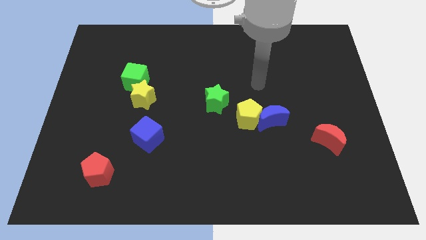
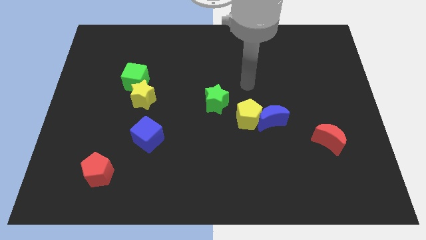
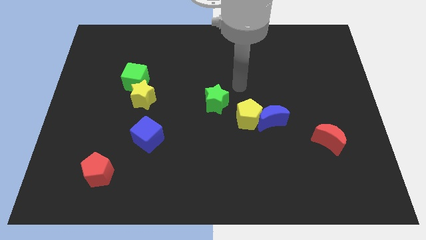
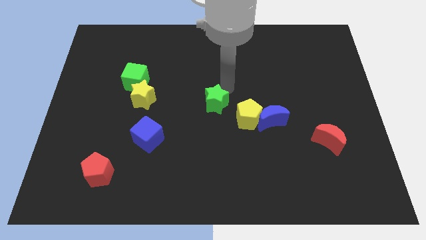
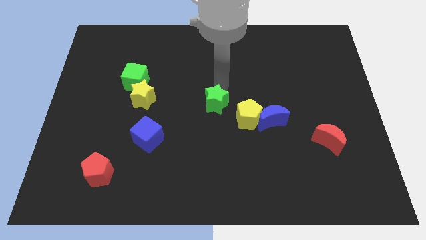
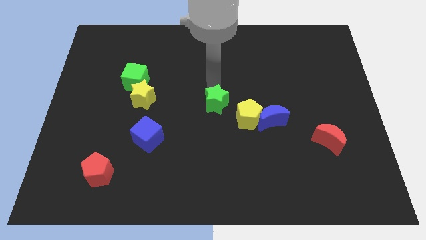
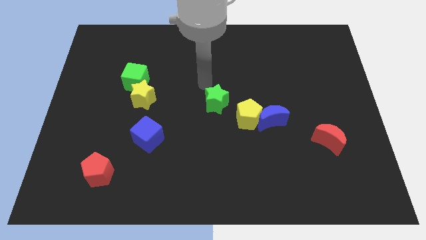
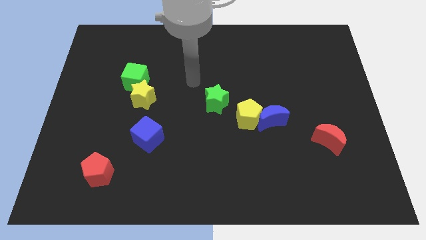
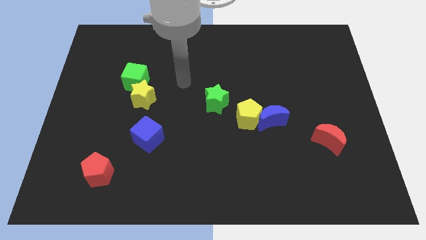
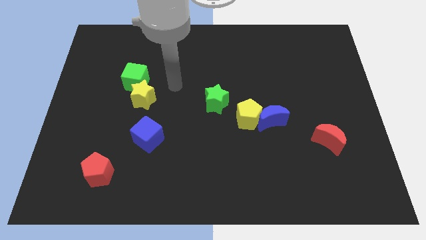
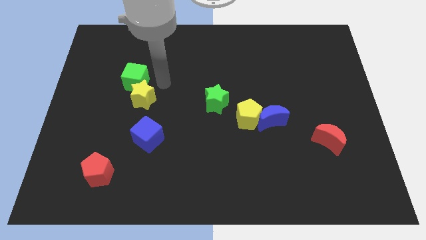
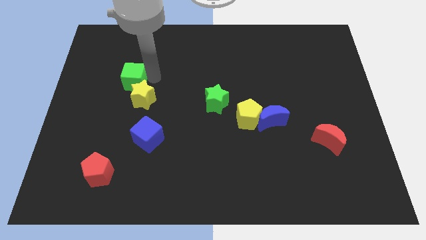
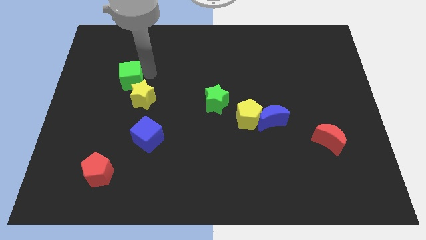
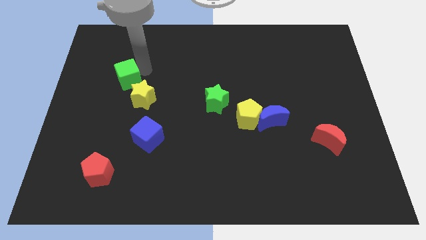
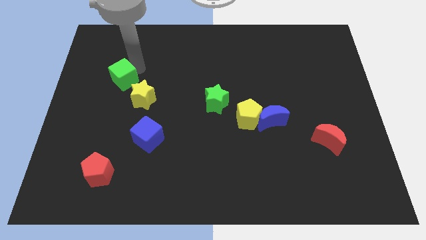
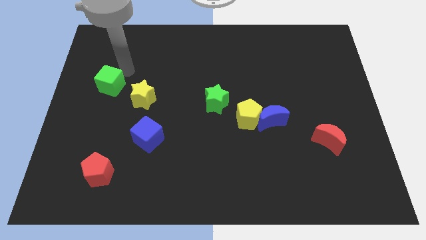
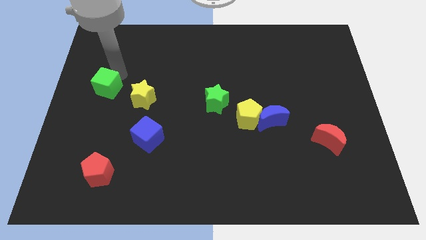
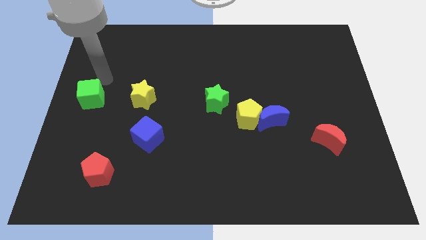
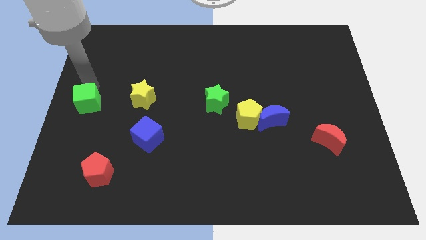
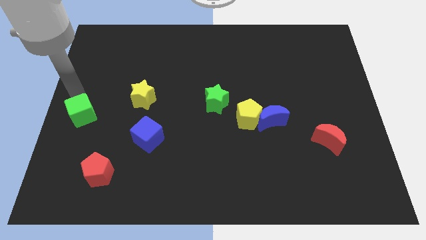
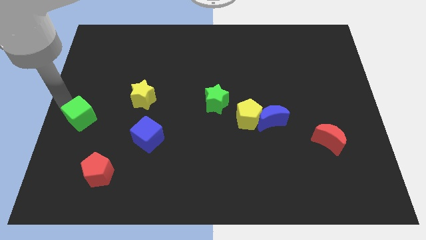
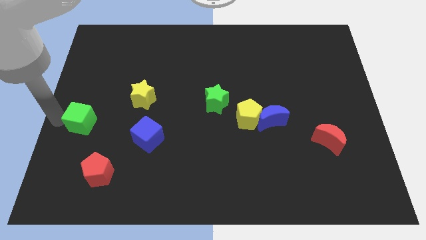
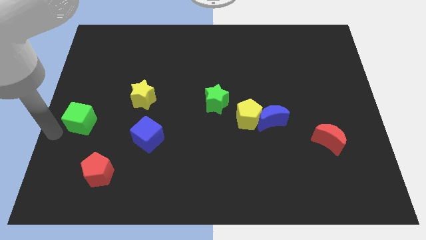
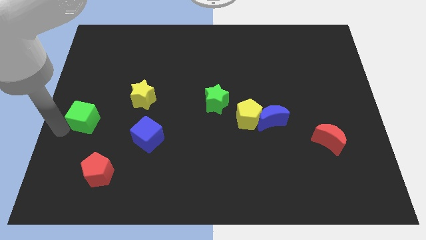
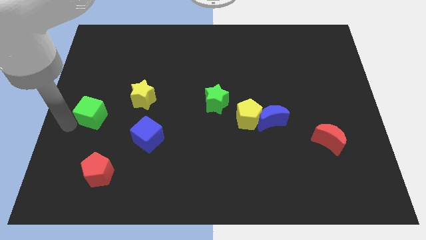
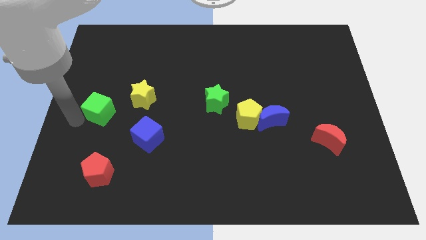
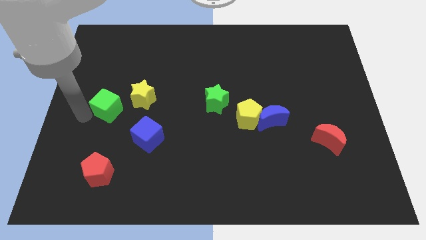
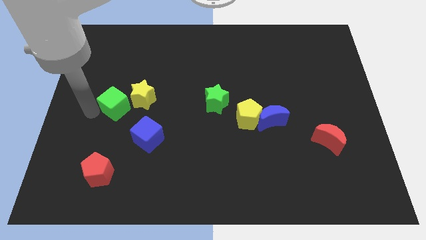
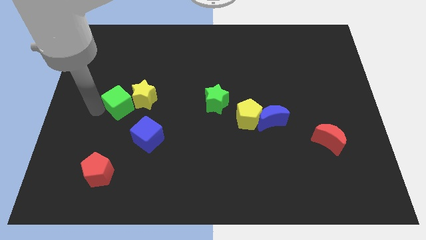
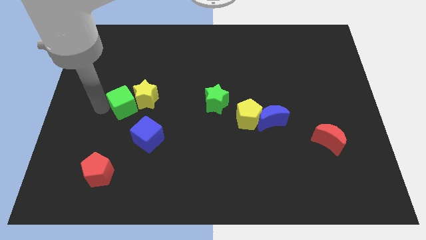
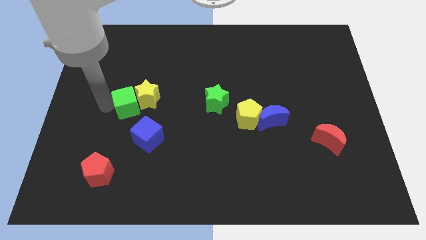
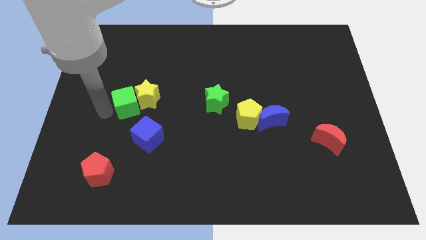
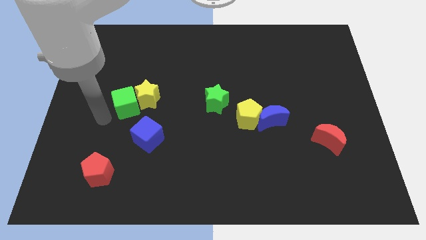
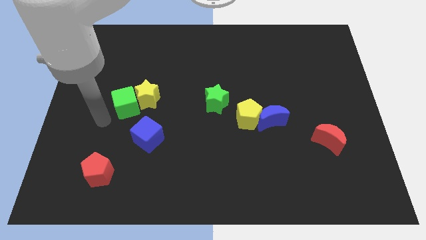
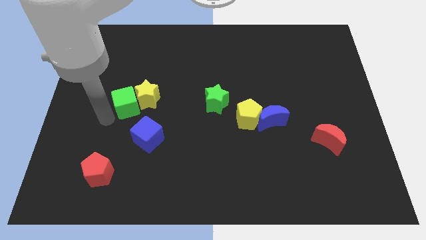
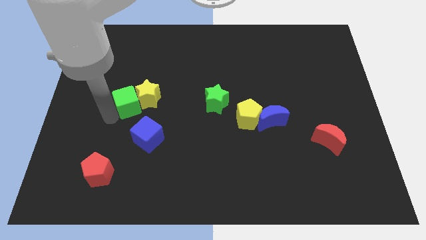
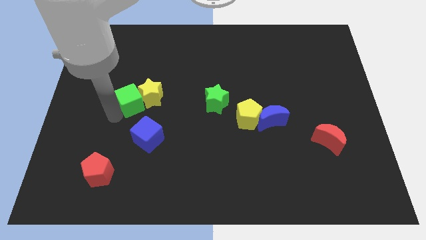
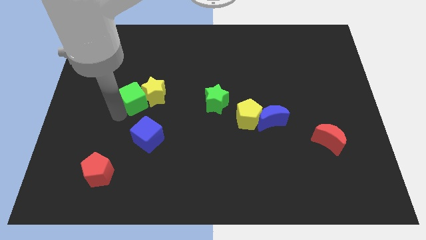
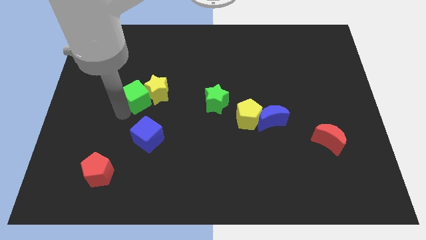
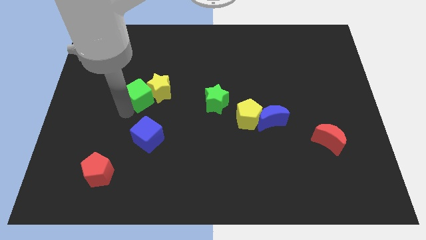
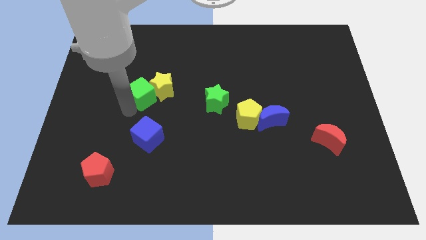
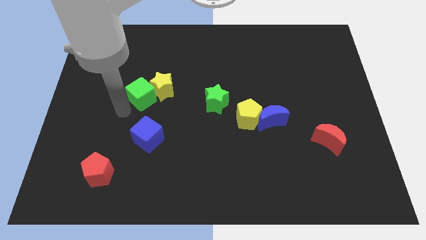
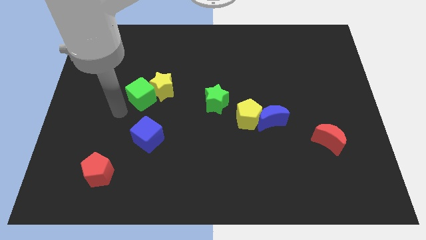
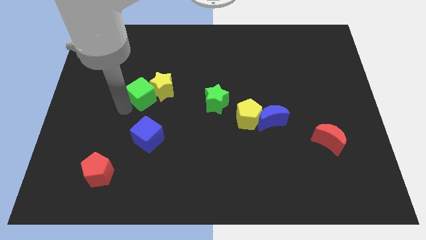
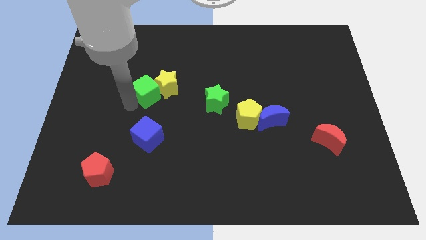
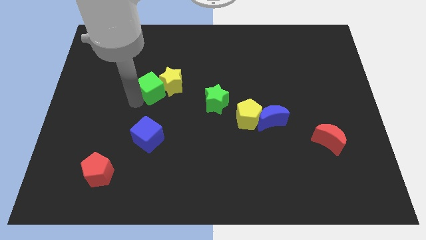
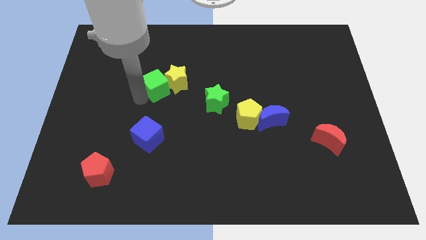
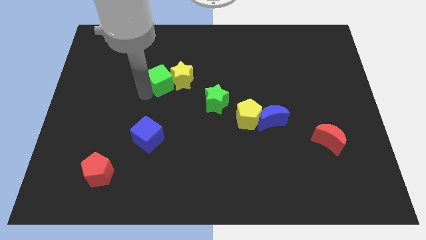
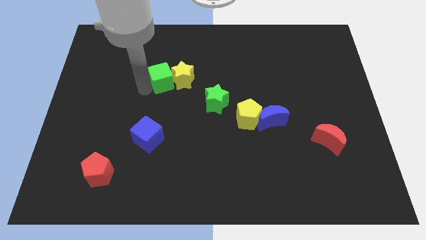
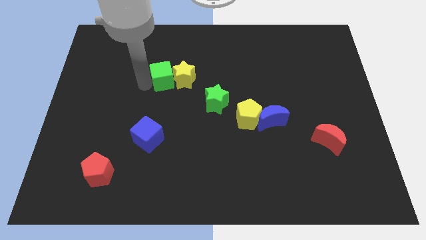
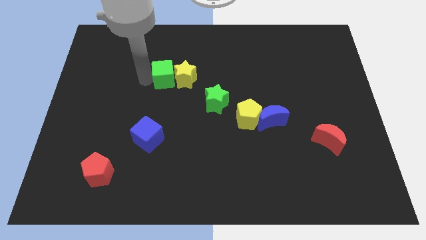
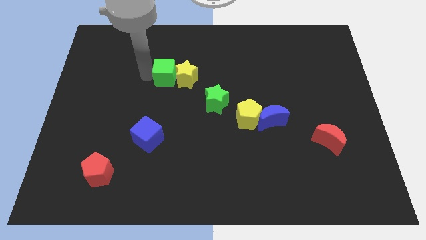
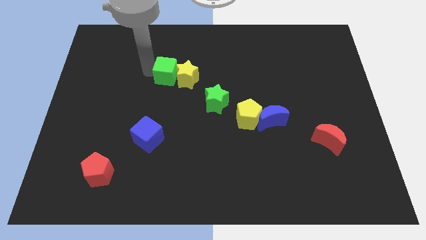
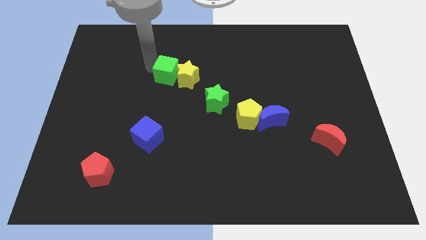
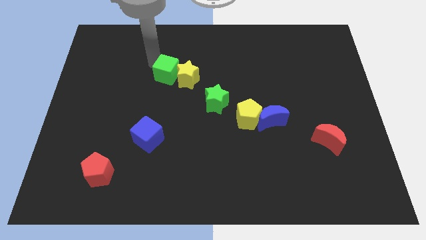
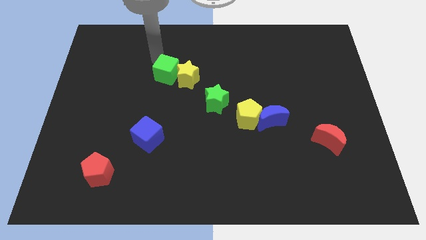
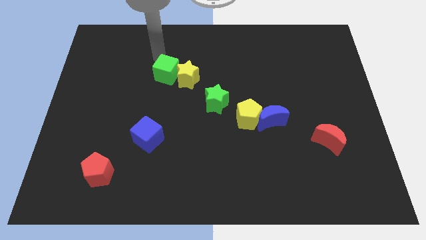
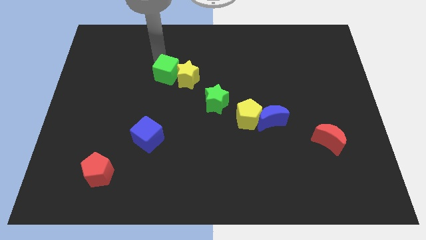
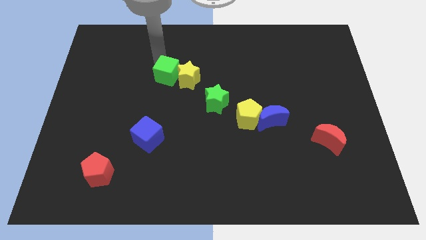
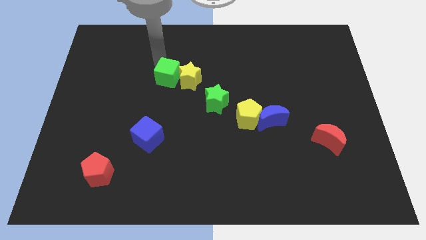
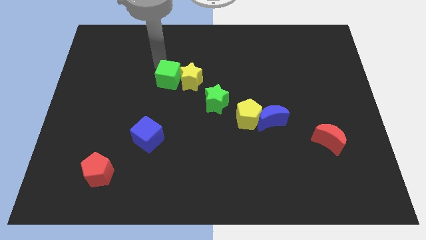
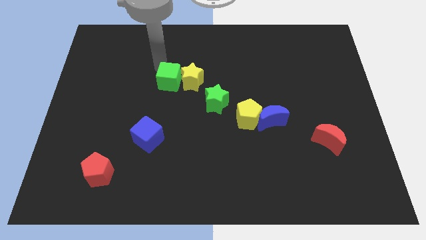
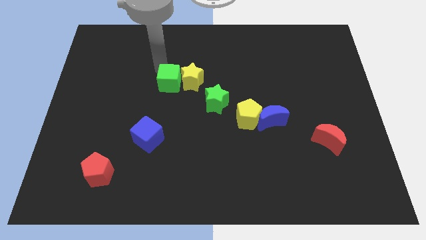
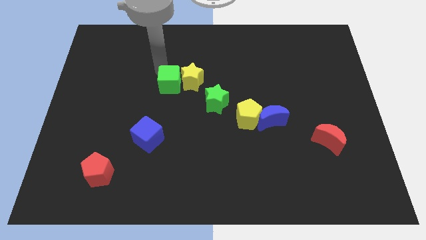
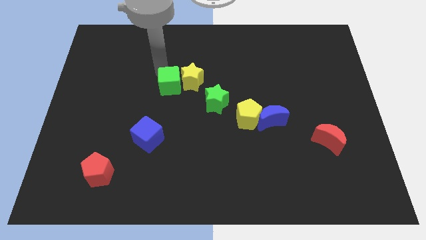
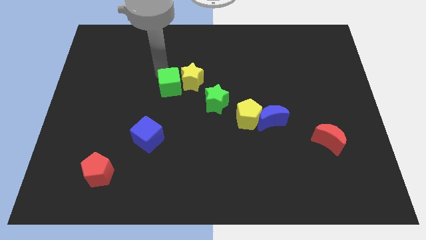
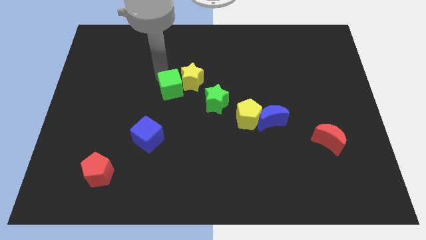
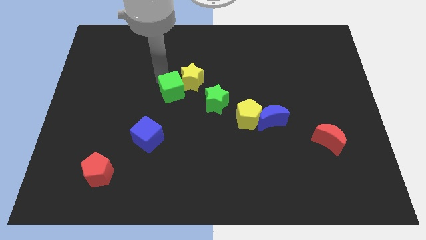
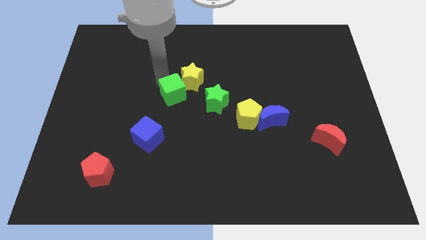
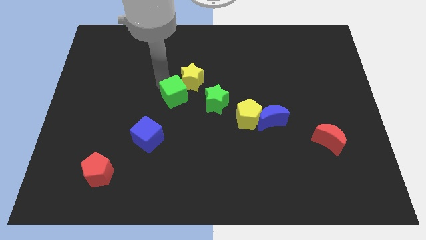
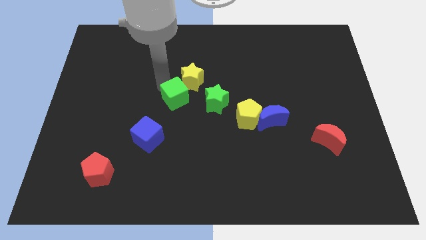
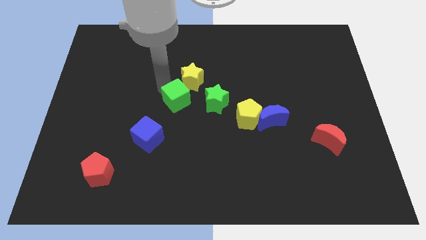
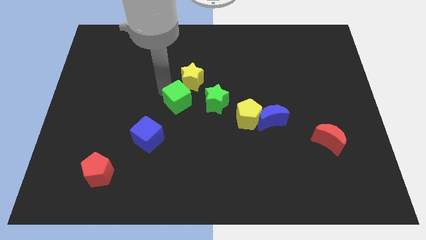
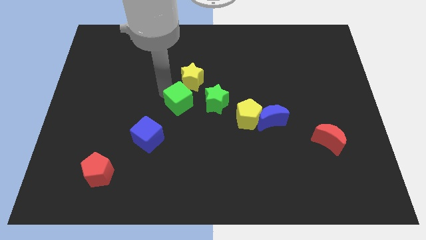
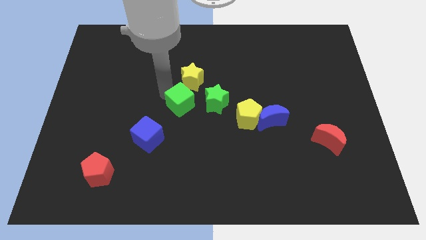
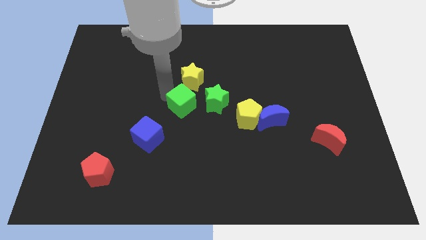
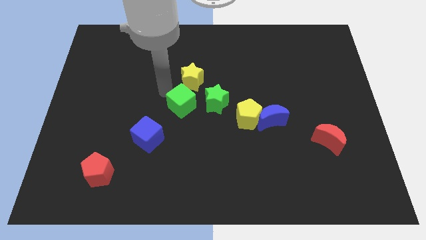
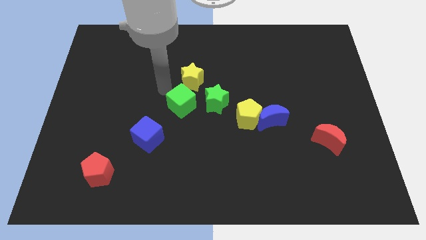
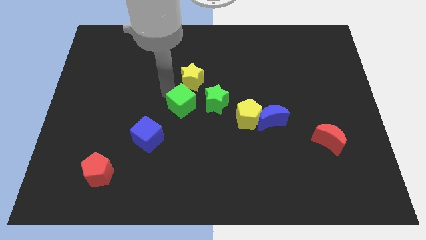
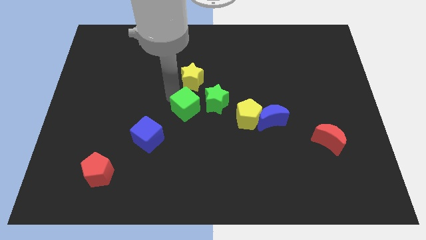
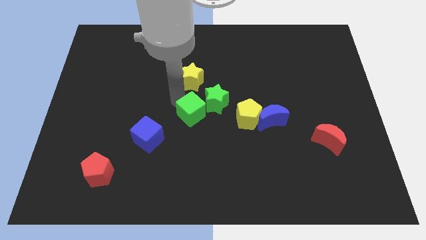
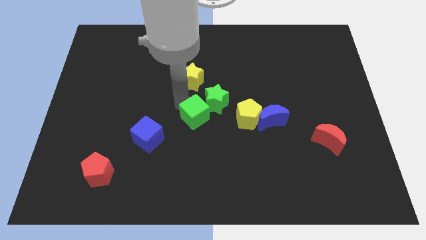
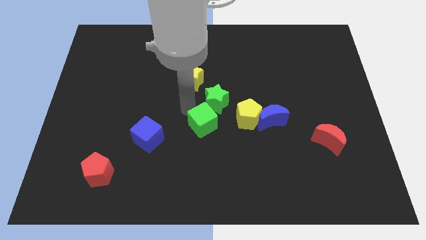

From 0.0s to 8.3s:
move the green cube downwards and to the right
